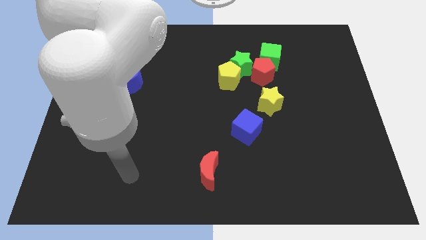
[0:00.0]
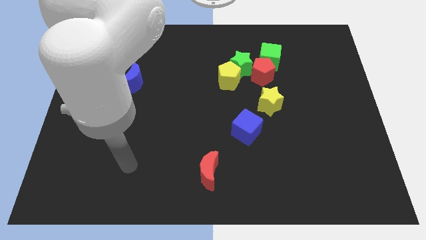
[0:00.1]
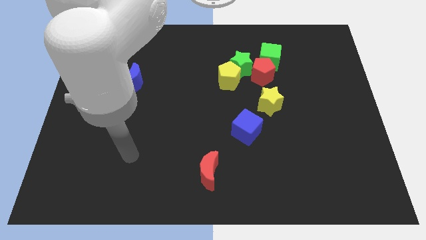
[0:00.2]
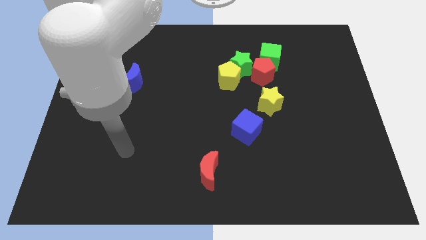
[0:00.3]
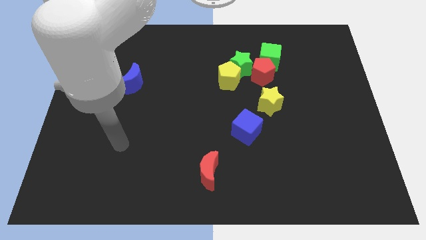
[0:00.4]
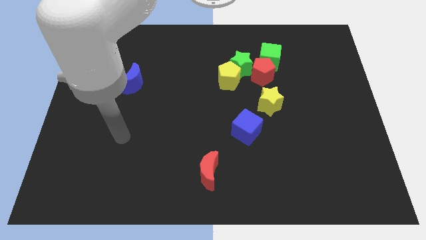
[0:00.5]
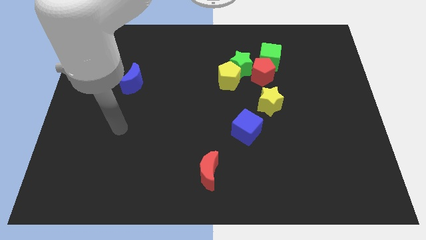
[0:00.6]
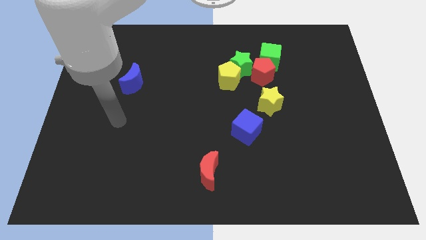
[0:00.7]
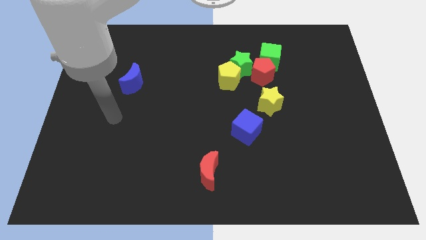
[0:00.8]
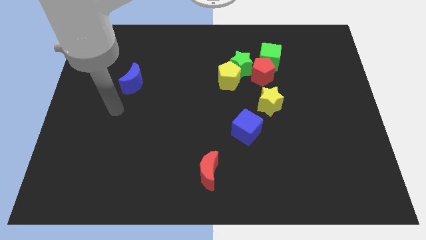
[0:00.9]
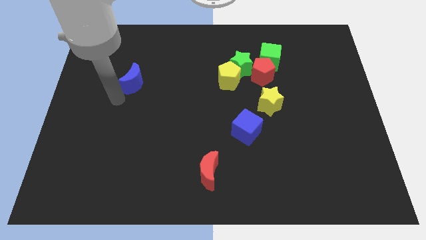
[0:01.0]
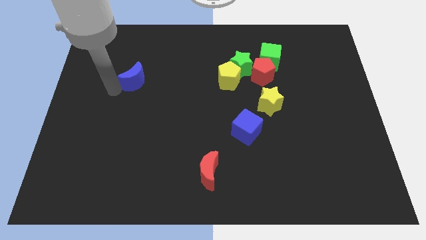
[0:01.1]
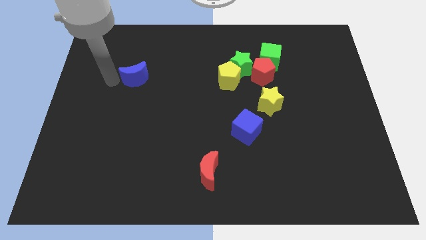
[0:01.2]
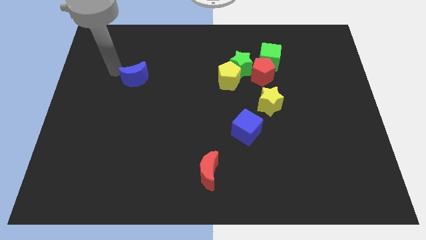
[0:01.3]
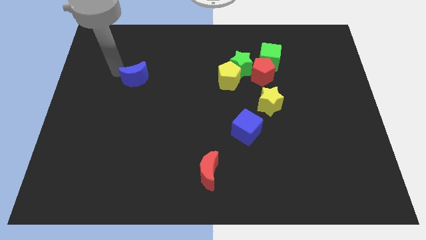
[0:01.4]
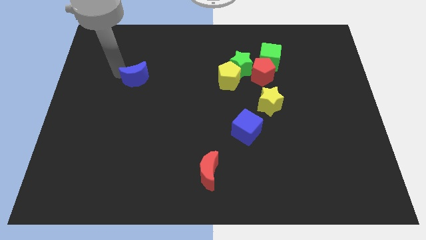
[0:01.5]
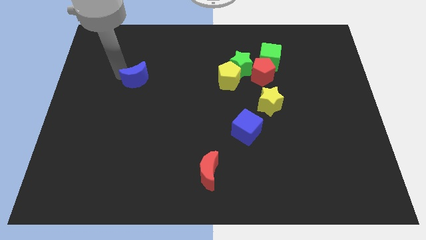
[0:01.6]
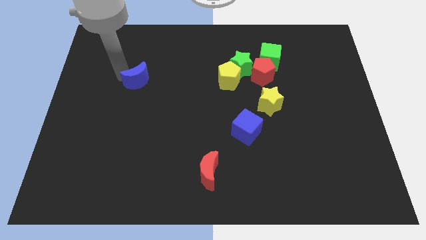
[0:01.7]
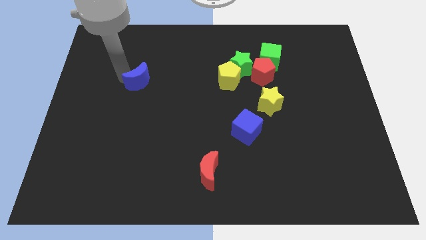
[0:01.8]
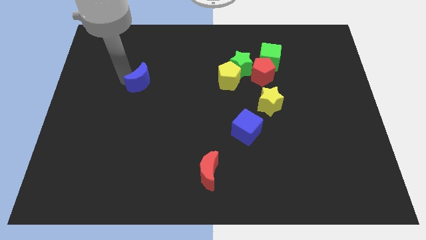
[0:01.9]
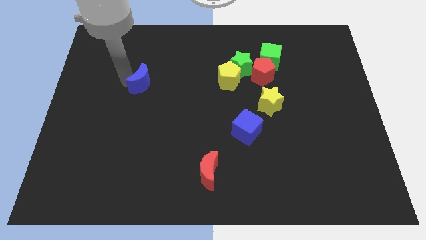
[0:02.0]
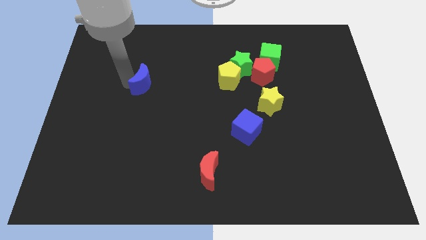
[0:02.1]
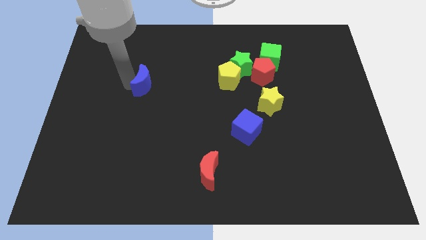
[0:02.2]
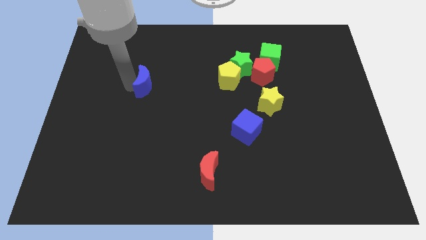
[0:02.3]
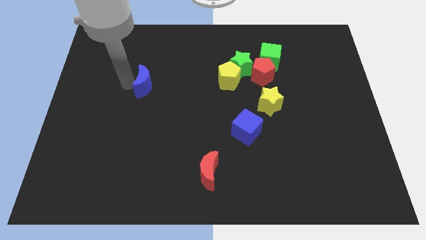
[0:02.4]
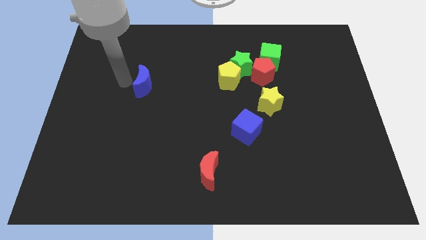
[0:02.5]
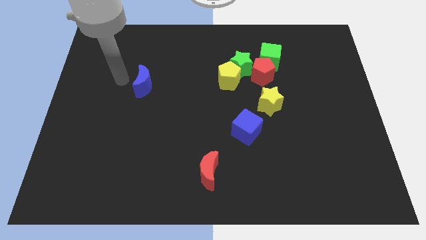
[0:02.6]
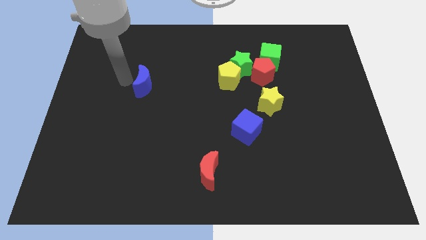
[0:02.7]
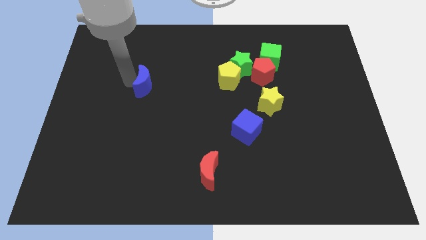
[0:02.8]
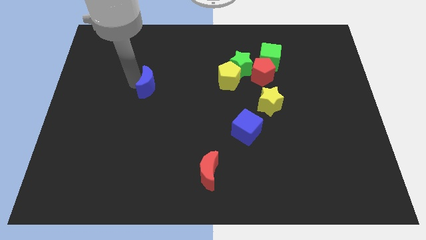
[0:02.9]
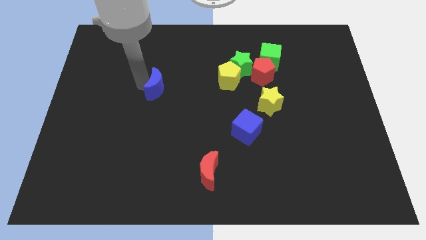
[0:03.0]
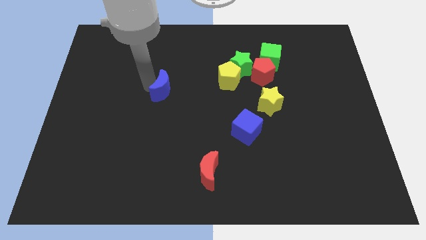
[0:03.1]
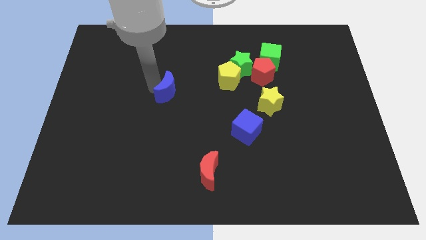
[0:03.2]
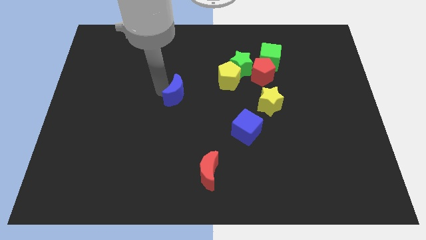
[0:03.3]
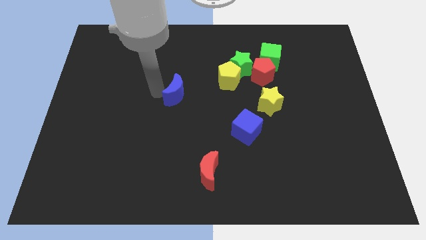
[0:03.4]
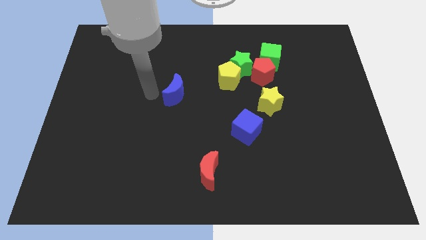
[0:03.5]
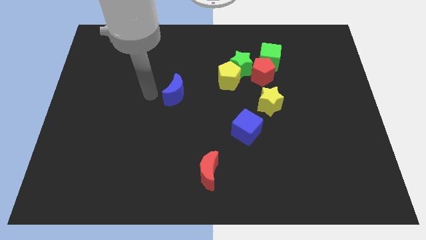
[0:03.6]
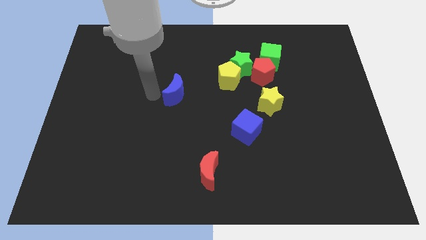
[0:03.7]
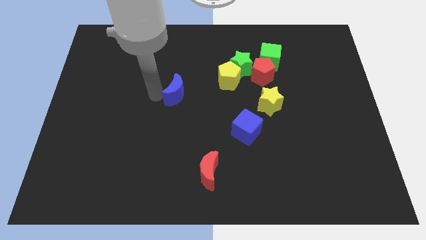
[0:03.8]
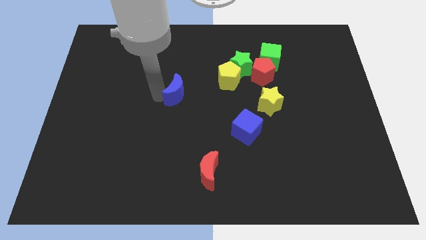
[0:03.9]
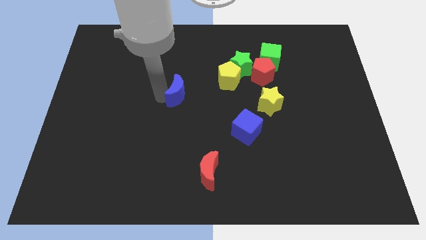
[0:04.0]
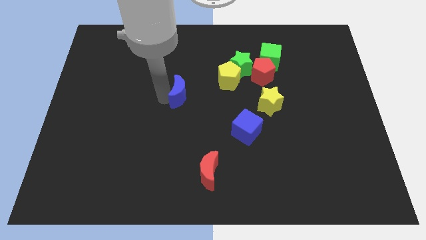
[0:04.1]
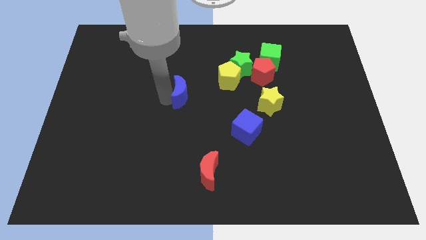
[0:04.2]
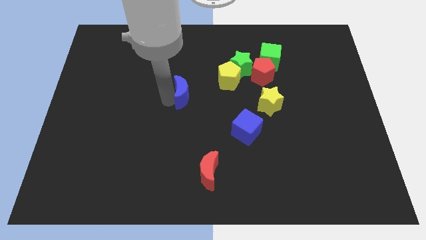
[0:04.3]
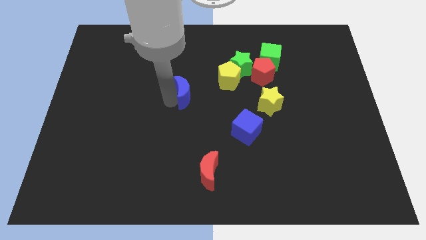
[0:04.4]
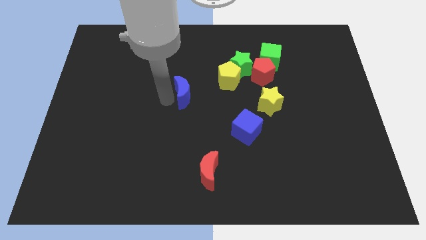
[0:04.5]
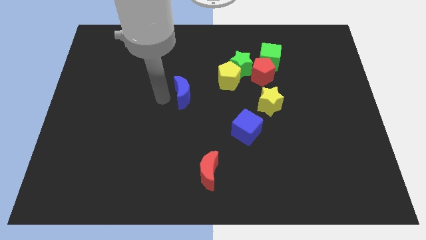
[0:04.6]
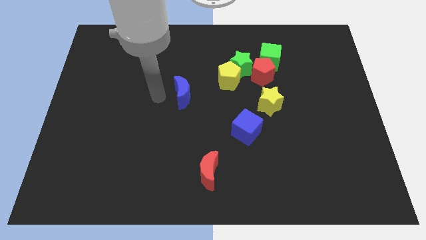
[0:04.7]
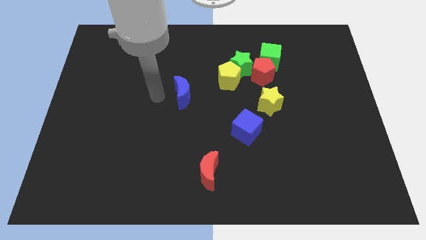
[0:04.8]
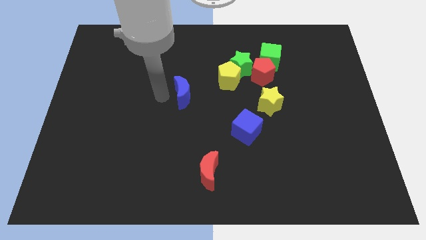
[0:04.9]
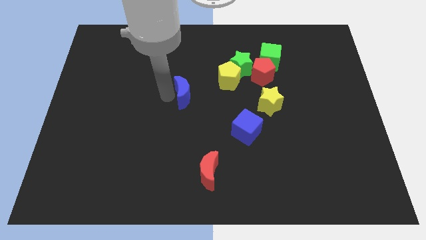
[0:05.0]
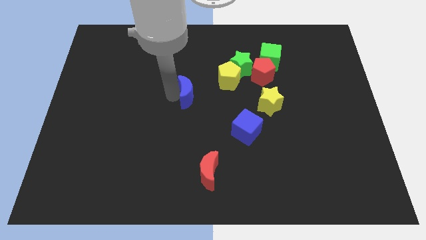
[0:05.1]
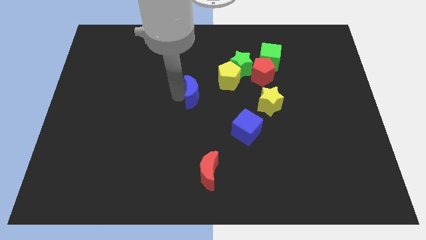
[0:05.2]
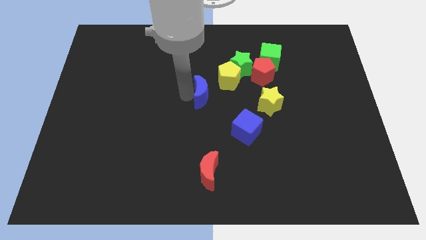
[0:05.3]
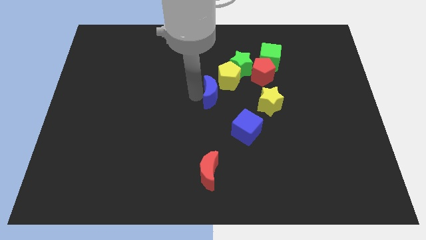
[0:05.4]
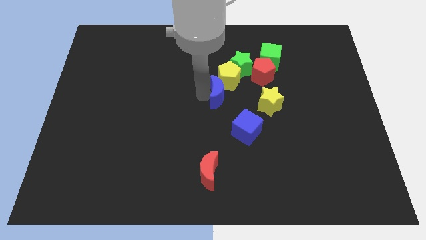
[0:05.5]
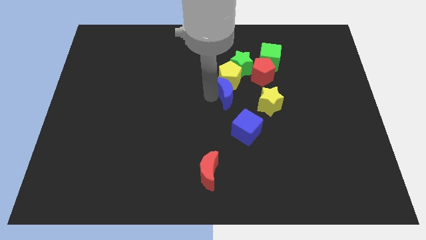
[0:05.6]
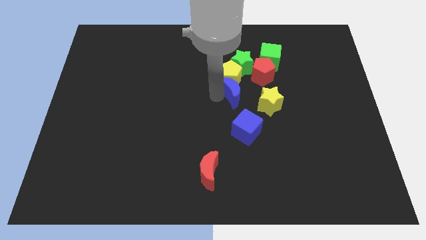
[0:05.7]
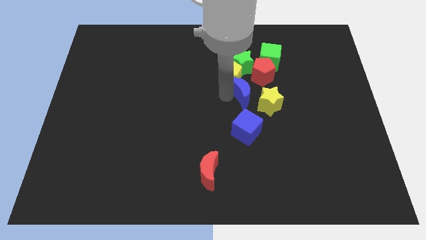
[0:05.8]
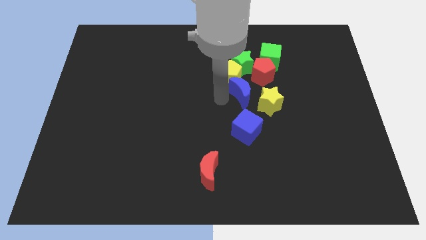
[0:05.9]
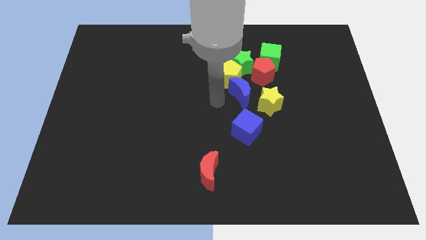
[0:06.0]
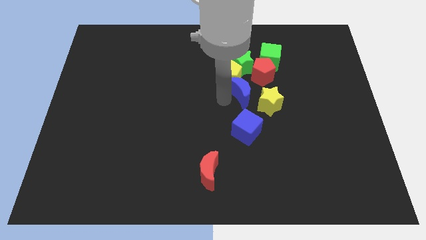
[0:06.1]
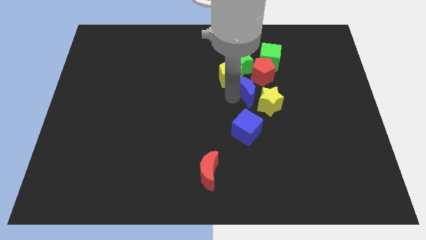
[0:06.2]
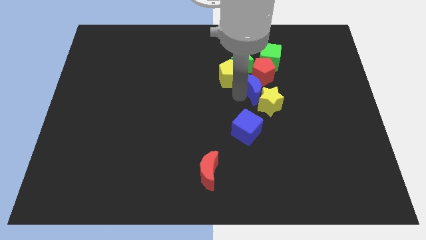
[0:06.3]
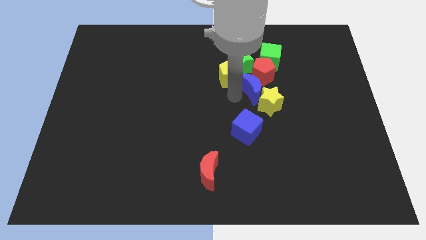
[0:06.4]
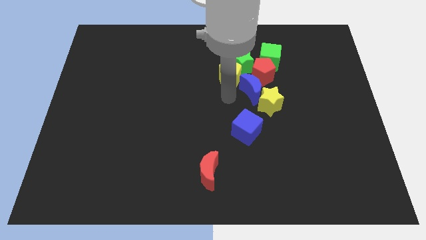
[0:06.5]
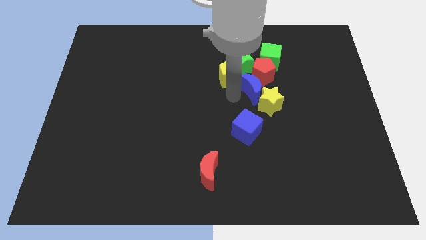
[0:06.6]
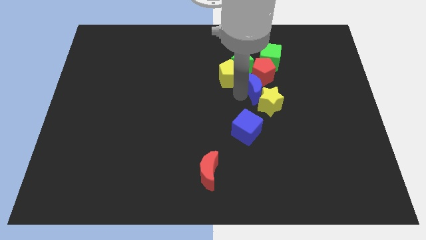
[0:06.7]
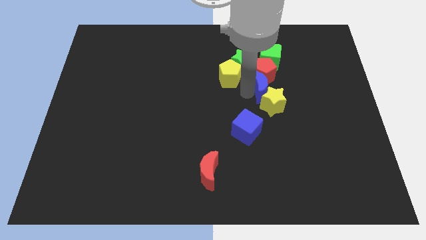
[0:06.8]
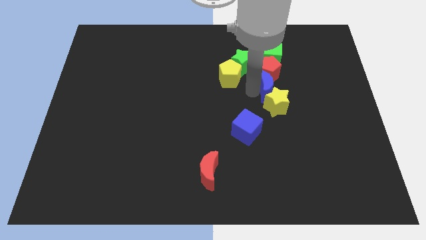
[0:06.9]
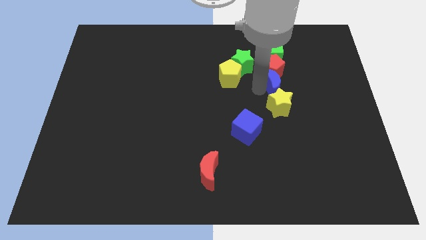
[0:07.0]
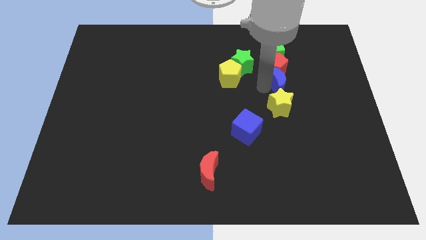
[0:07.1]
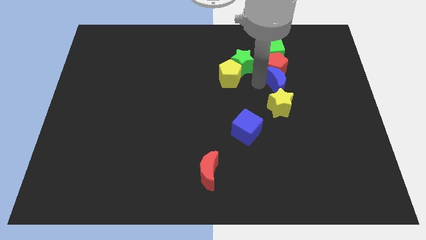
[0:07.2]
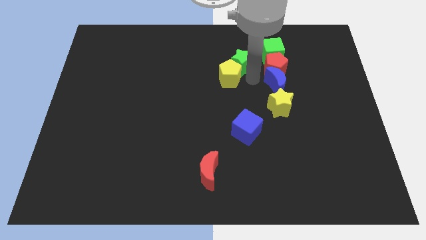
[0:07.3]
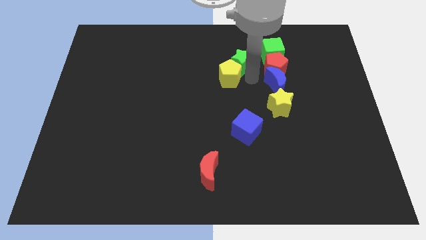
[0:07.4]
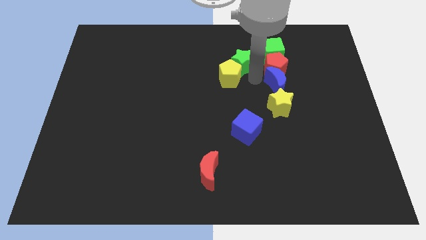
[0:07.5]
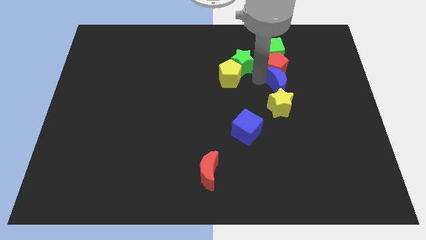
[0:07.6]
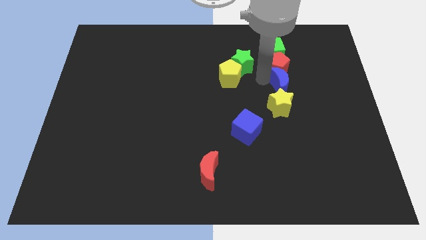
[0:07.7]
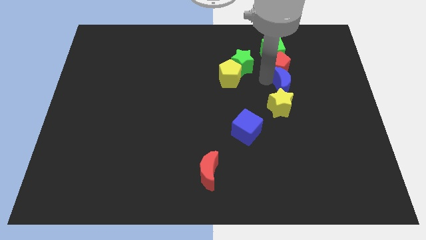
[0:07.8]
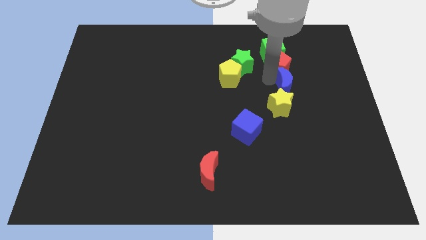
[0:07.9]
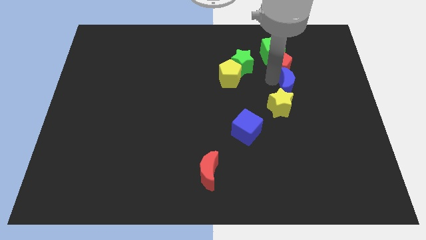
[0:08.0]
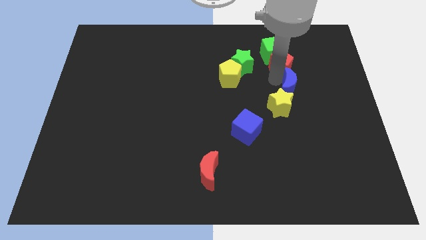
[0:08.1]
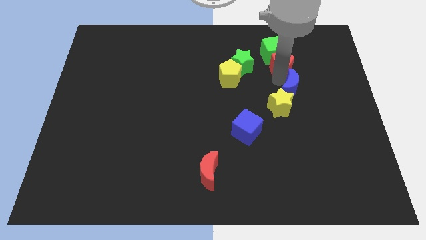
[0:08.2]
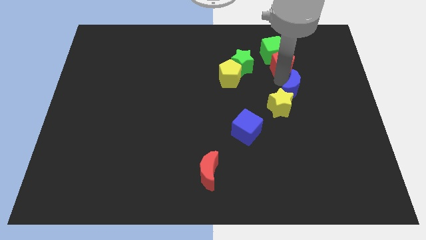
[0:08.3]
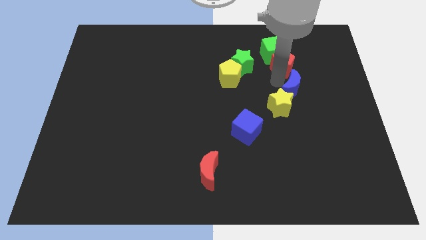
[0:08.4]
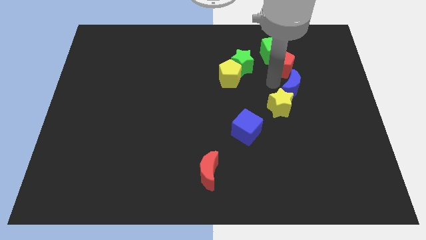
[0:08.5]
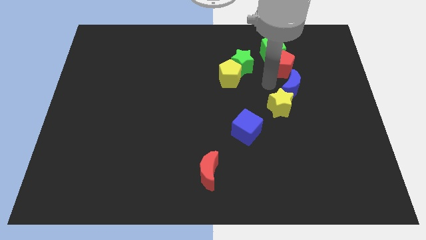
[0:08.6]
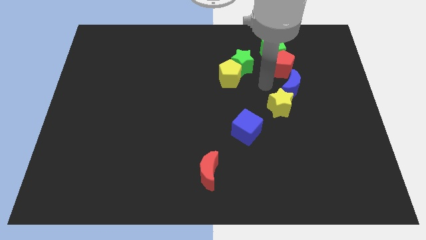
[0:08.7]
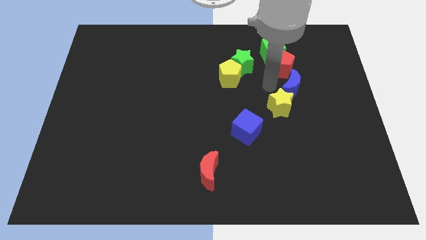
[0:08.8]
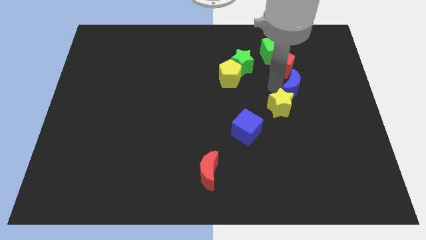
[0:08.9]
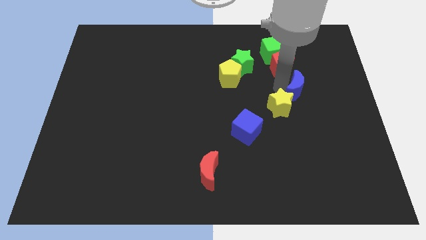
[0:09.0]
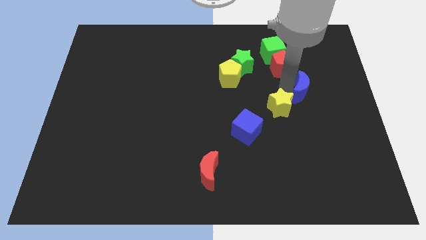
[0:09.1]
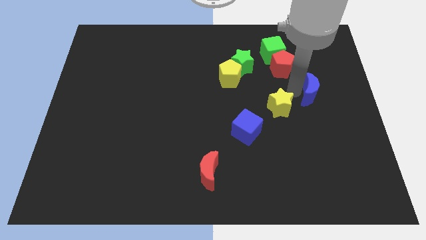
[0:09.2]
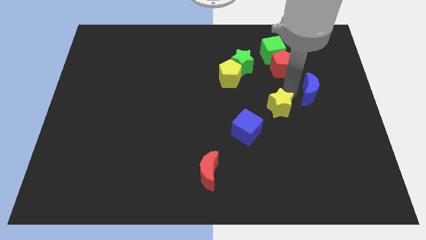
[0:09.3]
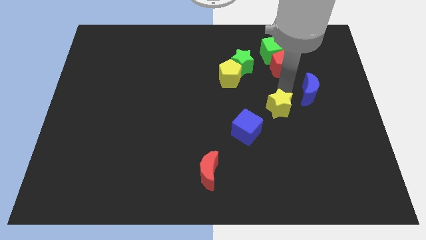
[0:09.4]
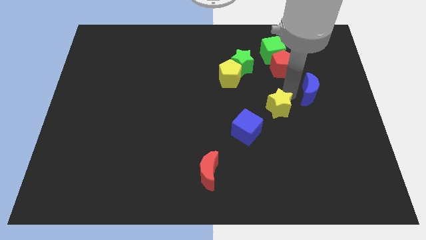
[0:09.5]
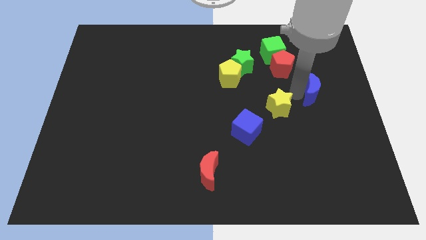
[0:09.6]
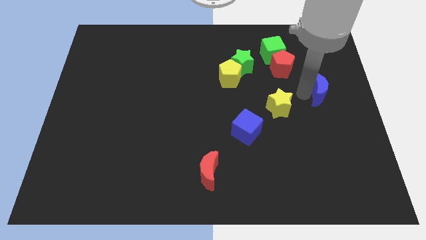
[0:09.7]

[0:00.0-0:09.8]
slide the blue moon to the right side of the board
